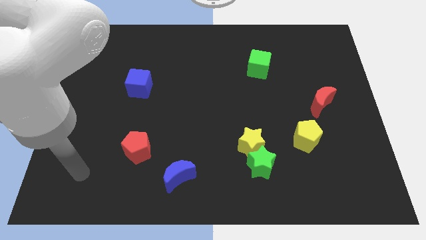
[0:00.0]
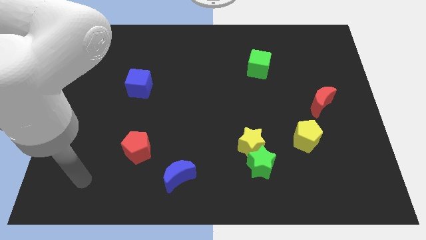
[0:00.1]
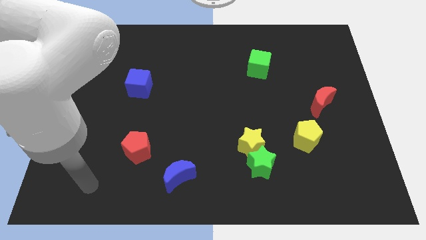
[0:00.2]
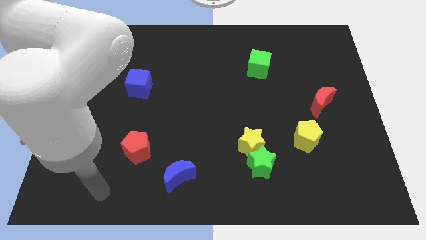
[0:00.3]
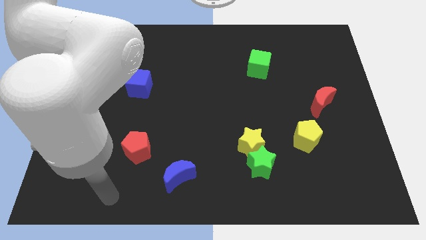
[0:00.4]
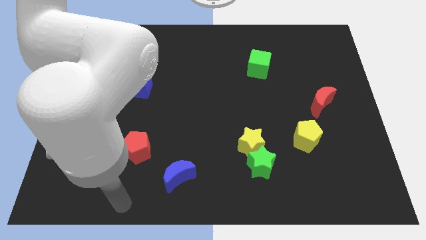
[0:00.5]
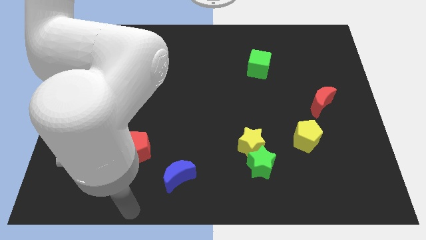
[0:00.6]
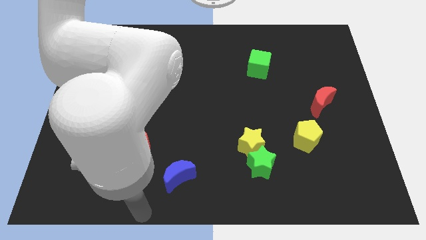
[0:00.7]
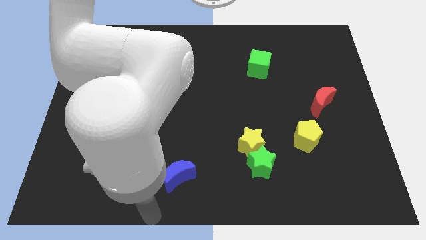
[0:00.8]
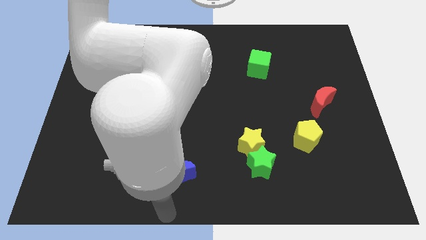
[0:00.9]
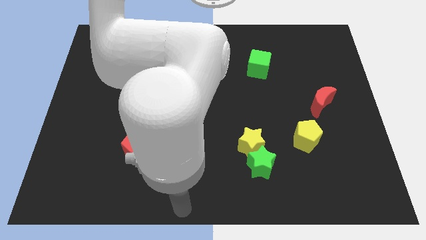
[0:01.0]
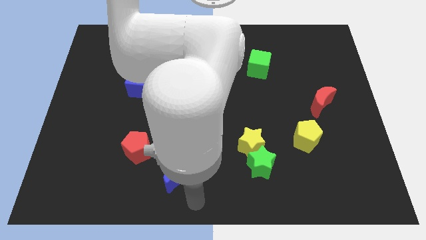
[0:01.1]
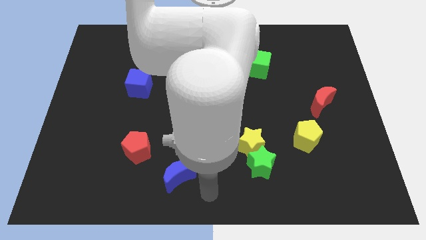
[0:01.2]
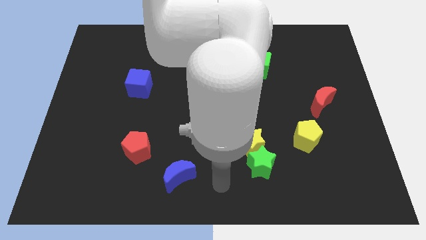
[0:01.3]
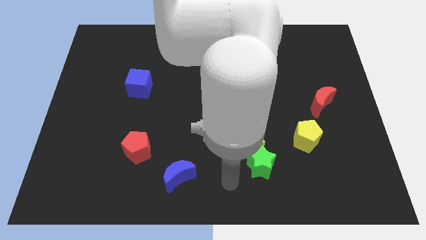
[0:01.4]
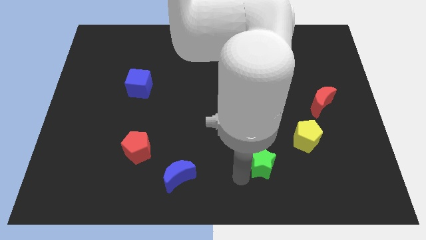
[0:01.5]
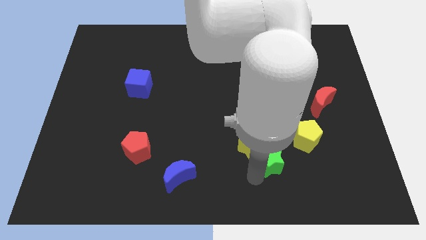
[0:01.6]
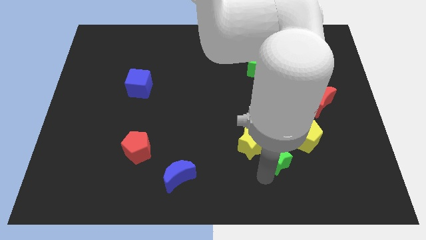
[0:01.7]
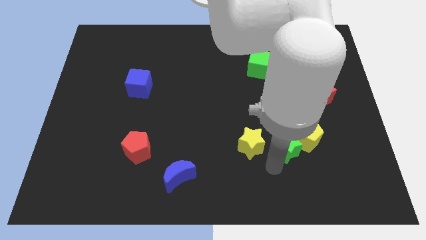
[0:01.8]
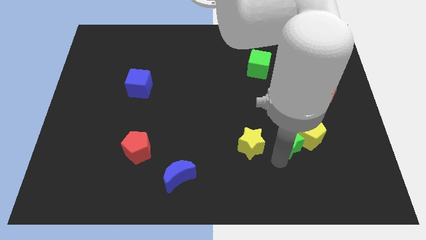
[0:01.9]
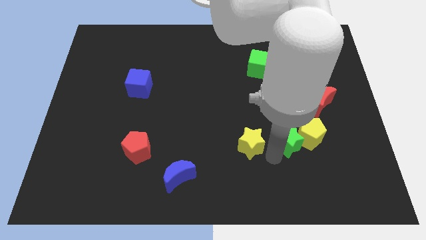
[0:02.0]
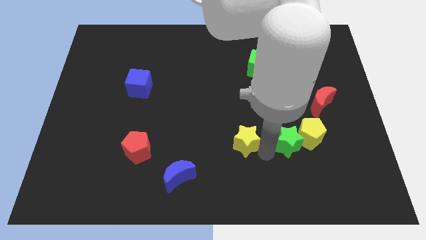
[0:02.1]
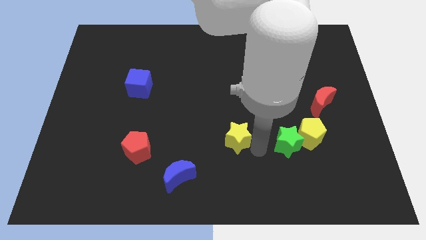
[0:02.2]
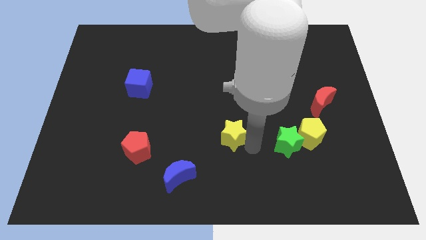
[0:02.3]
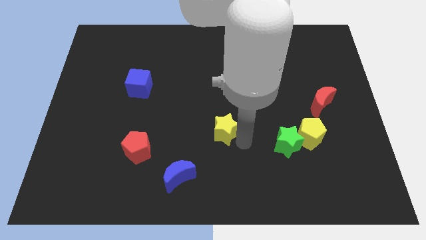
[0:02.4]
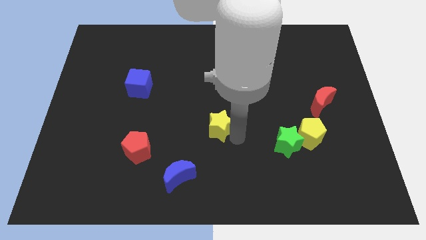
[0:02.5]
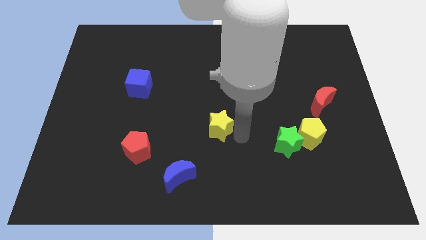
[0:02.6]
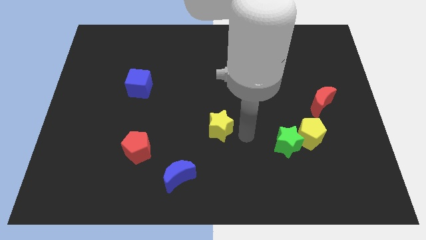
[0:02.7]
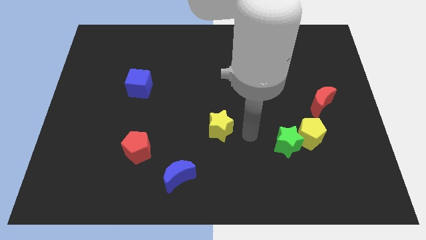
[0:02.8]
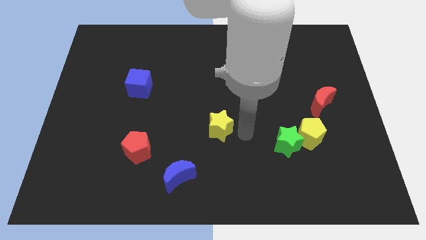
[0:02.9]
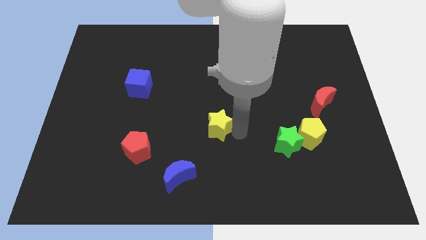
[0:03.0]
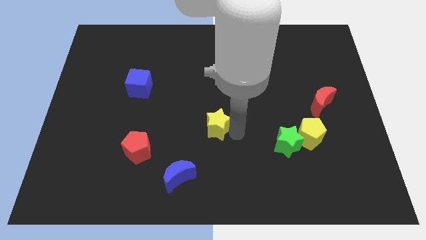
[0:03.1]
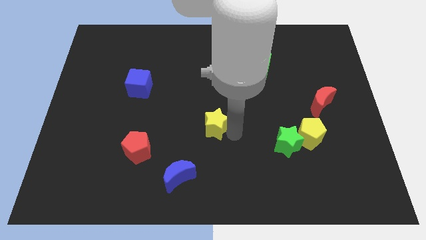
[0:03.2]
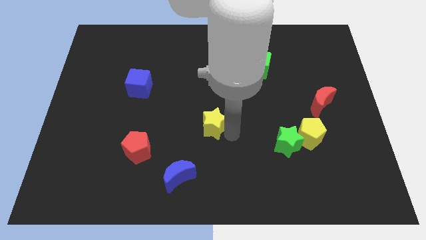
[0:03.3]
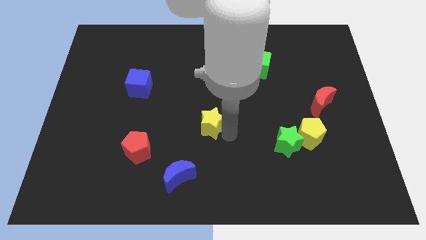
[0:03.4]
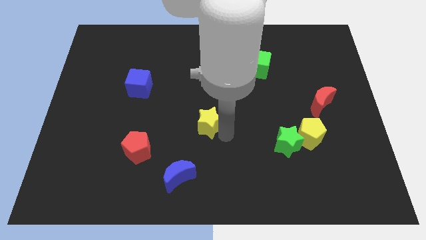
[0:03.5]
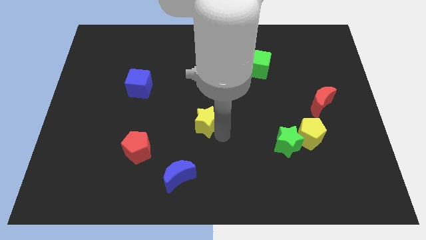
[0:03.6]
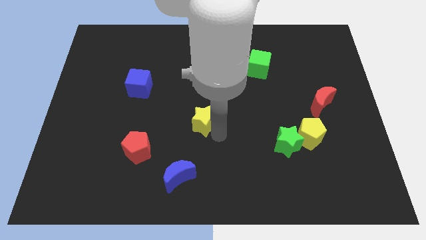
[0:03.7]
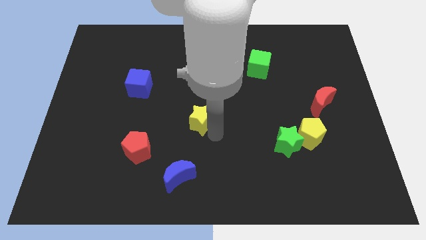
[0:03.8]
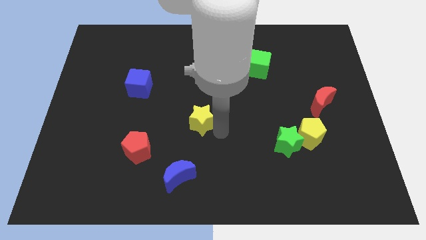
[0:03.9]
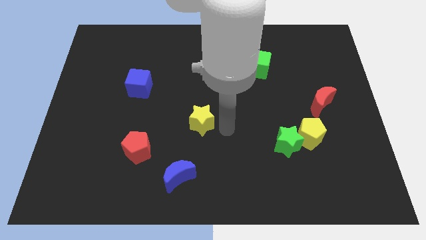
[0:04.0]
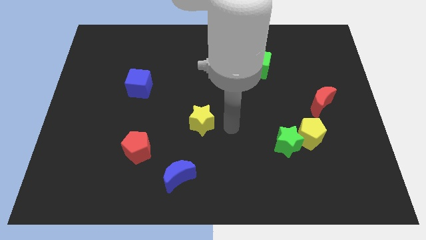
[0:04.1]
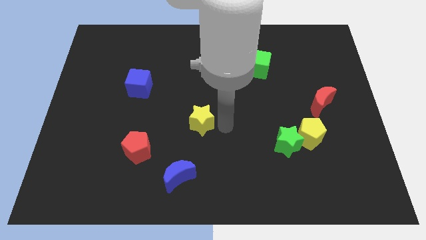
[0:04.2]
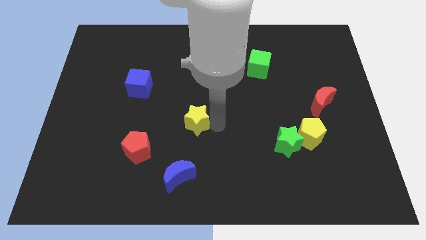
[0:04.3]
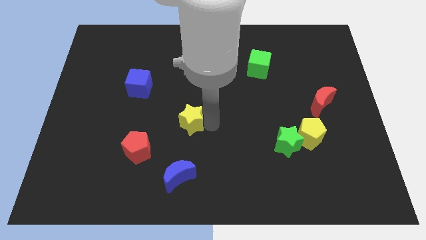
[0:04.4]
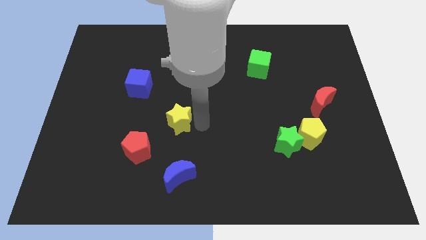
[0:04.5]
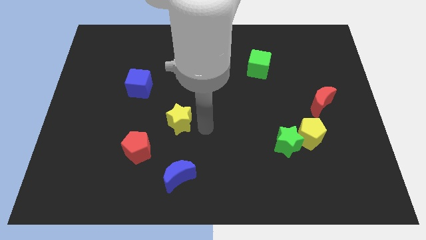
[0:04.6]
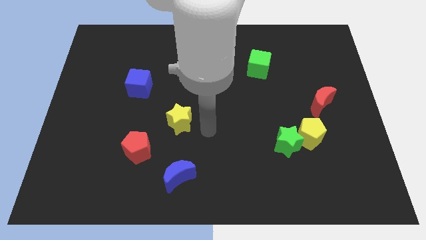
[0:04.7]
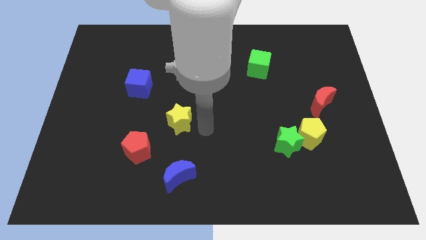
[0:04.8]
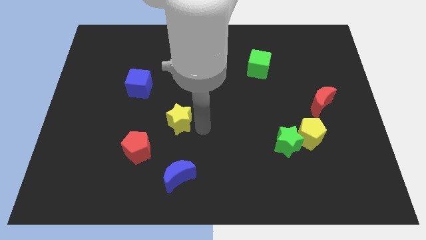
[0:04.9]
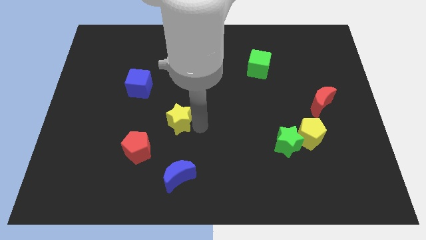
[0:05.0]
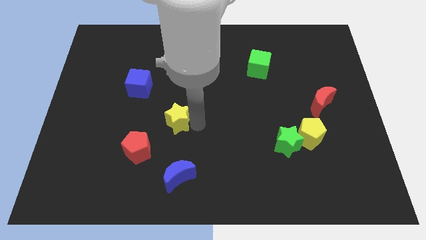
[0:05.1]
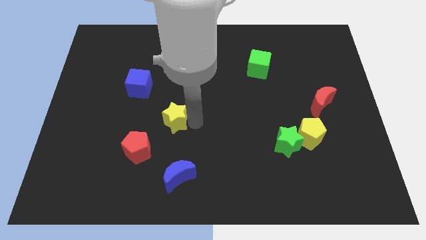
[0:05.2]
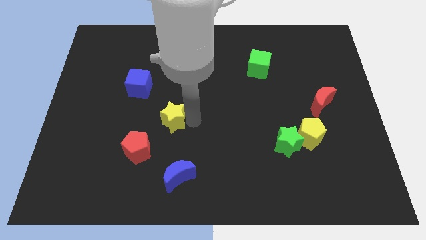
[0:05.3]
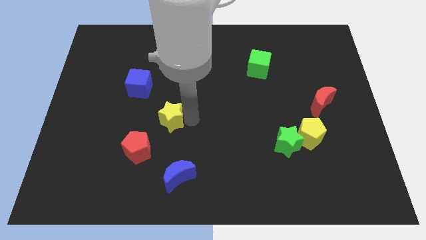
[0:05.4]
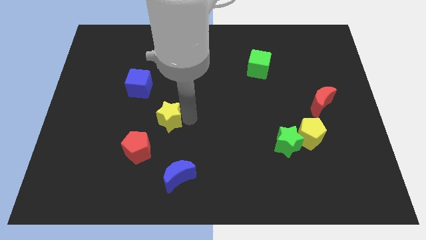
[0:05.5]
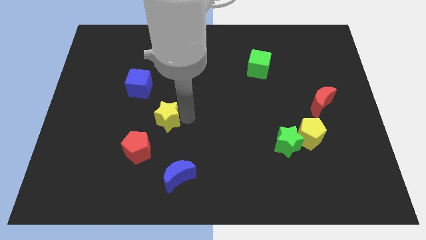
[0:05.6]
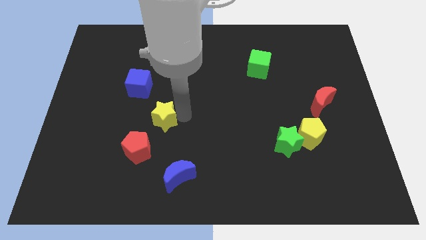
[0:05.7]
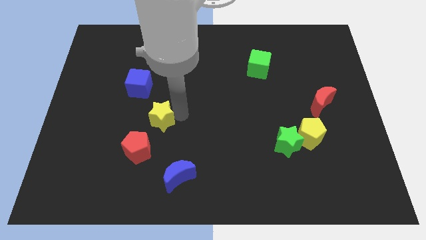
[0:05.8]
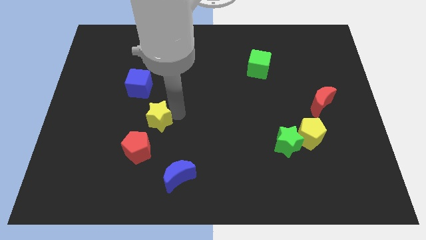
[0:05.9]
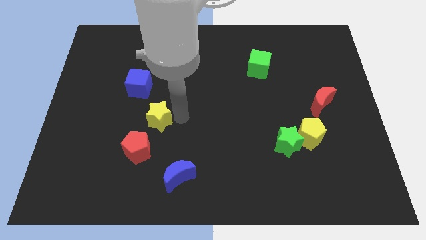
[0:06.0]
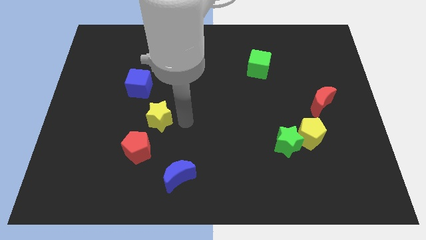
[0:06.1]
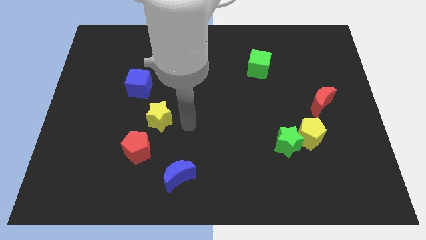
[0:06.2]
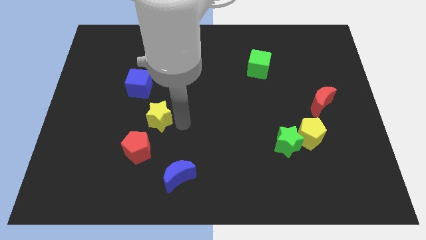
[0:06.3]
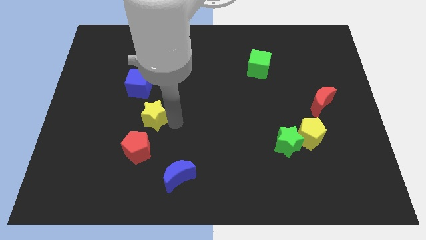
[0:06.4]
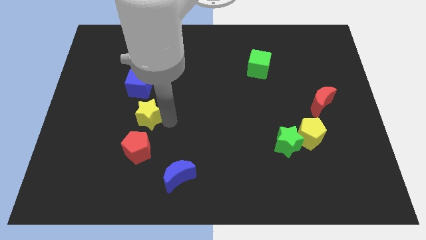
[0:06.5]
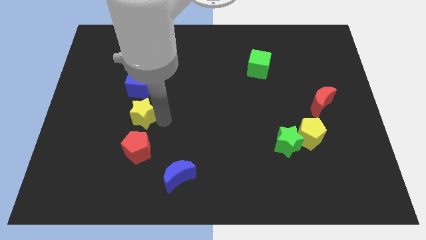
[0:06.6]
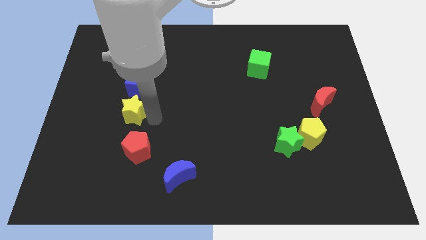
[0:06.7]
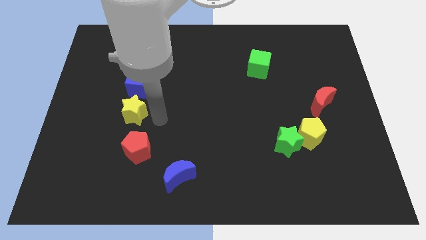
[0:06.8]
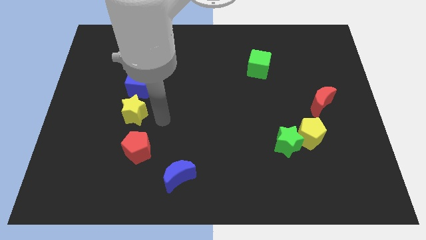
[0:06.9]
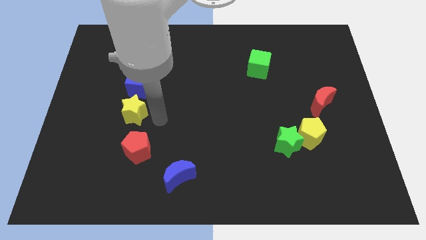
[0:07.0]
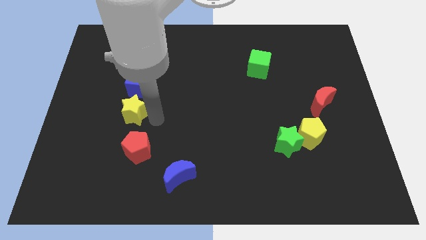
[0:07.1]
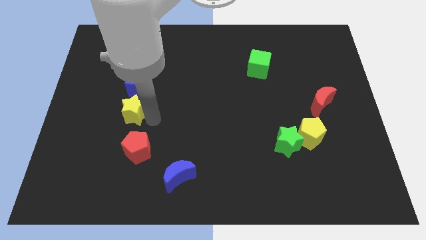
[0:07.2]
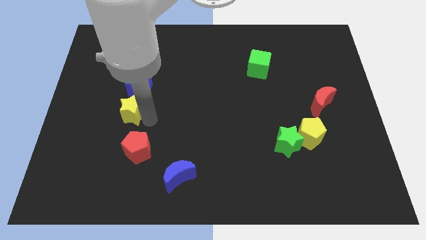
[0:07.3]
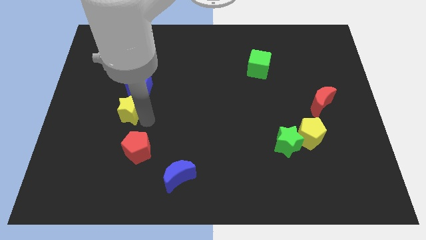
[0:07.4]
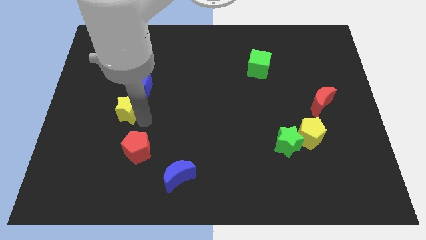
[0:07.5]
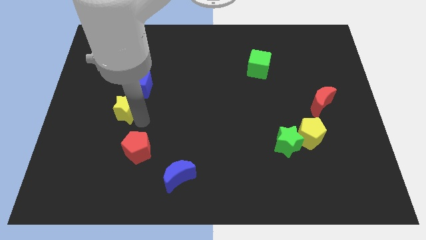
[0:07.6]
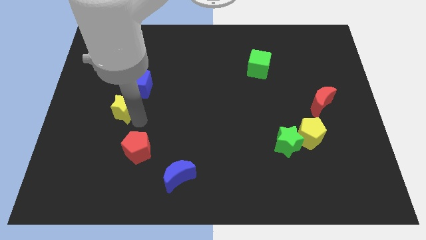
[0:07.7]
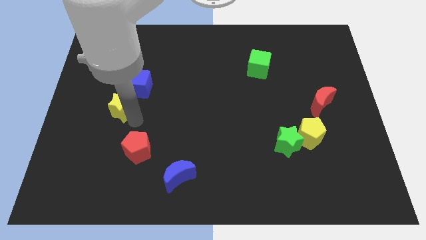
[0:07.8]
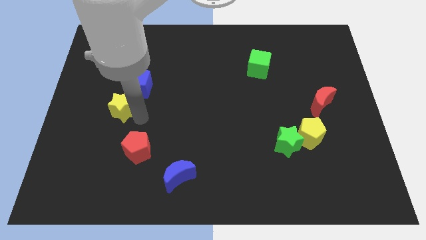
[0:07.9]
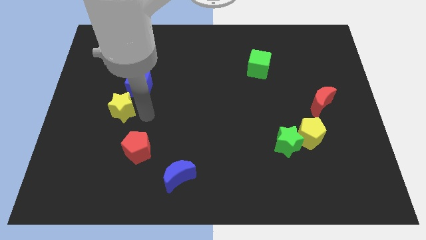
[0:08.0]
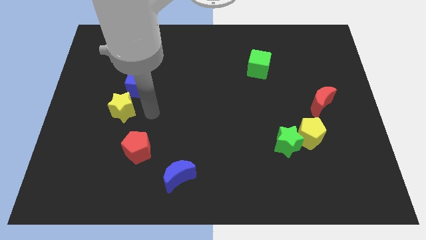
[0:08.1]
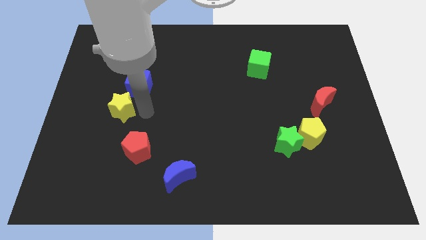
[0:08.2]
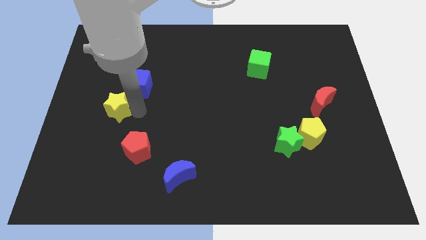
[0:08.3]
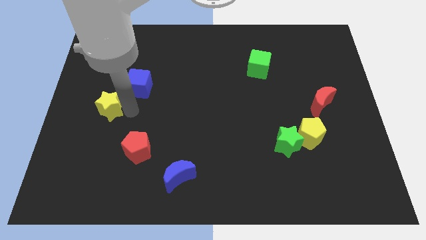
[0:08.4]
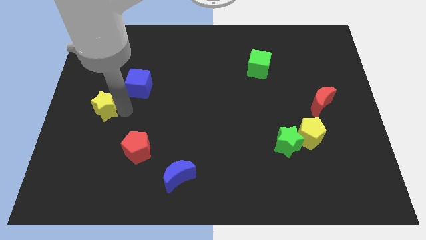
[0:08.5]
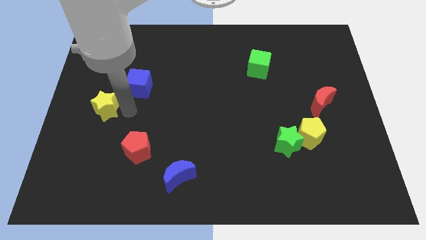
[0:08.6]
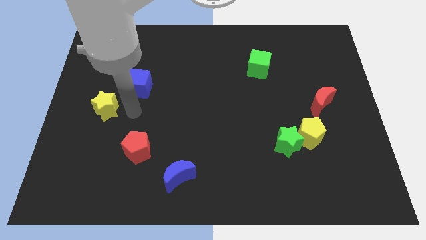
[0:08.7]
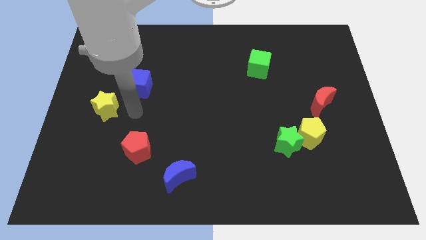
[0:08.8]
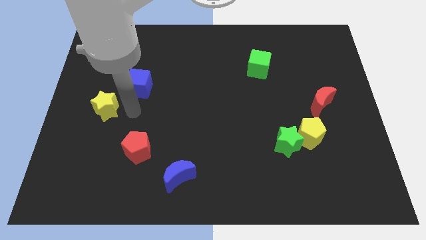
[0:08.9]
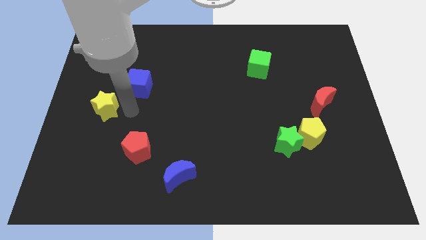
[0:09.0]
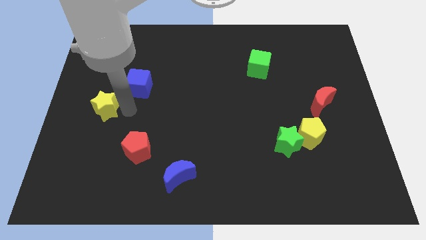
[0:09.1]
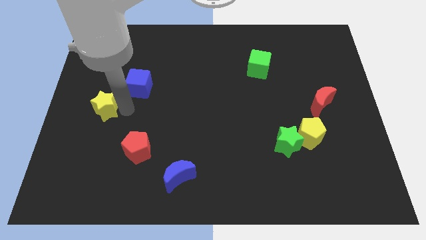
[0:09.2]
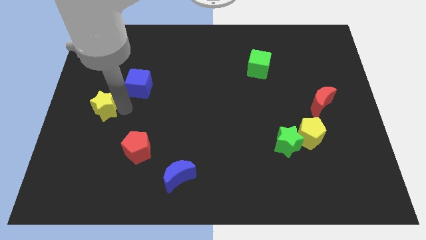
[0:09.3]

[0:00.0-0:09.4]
put the yellow star to the center left
